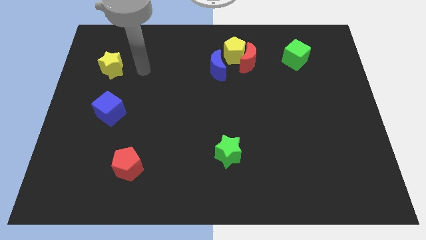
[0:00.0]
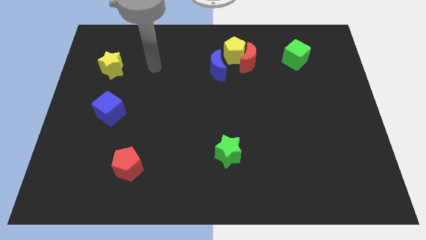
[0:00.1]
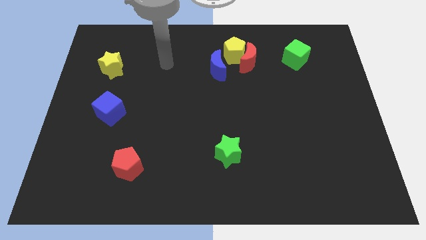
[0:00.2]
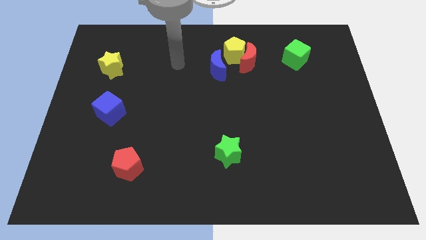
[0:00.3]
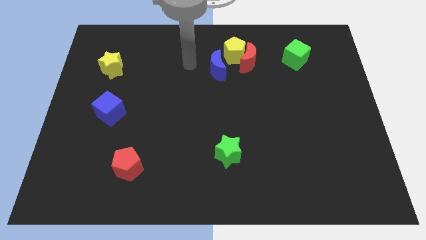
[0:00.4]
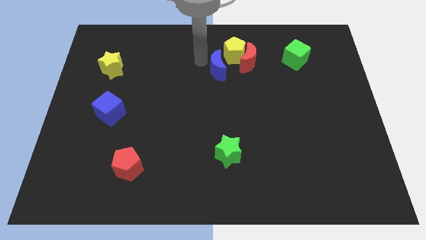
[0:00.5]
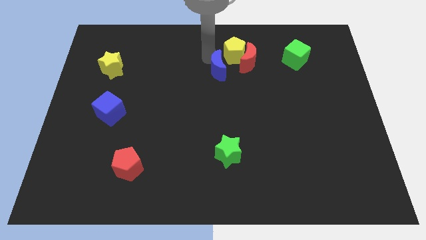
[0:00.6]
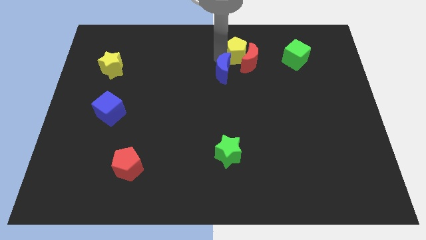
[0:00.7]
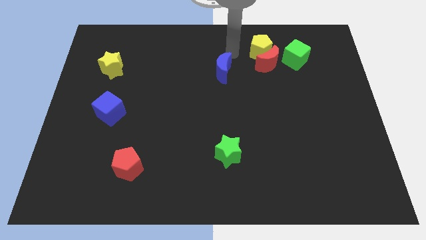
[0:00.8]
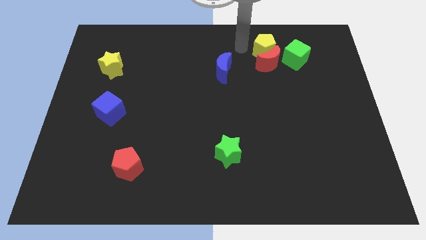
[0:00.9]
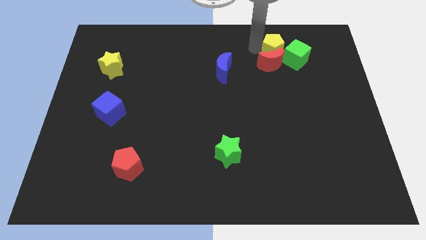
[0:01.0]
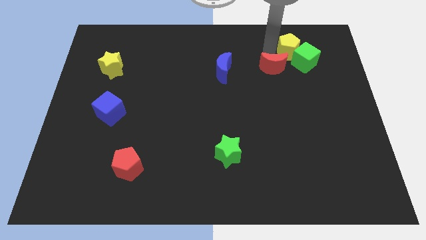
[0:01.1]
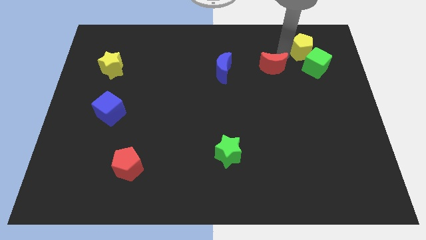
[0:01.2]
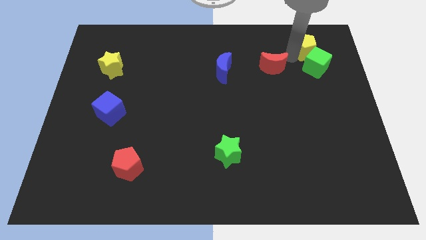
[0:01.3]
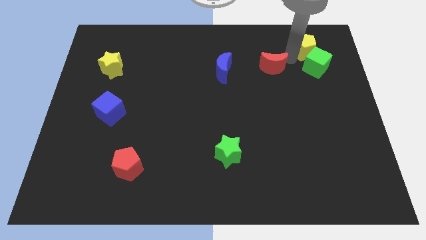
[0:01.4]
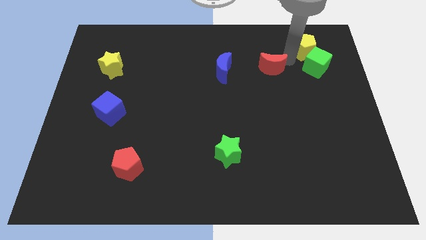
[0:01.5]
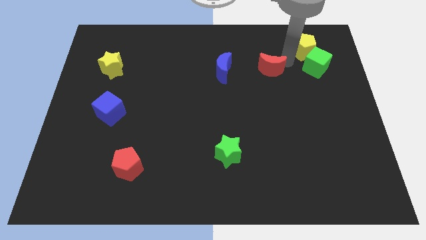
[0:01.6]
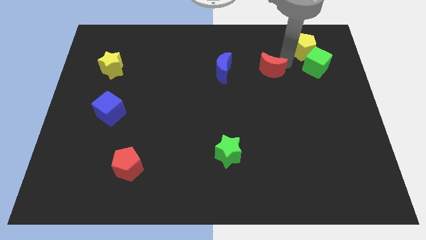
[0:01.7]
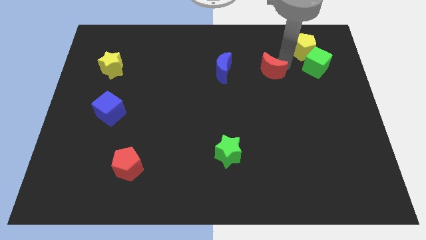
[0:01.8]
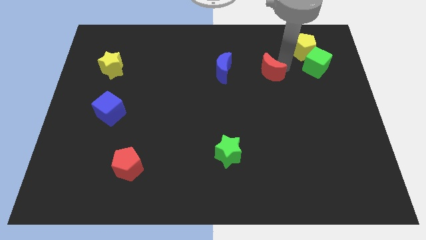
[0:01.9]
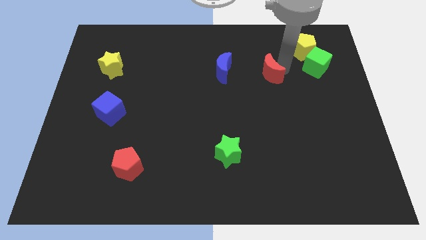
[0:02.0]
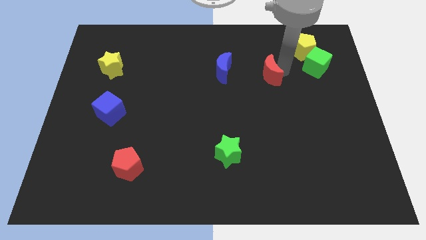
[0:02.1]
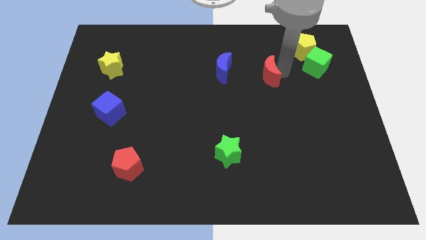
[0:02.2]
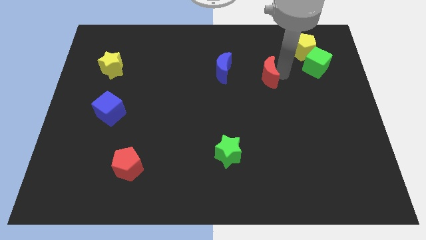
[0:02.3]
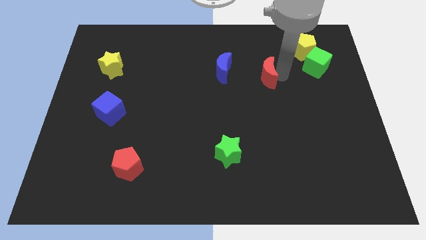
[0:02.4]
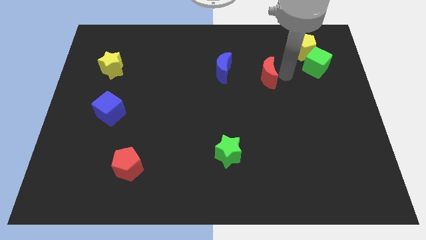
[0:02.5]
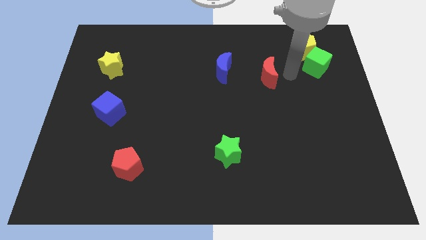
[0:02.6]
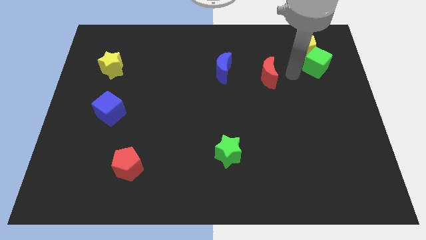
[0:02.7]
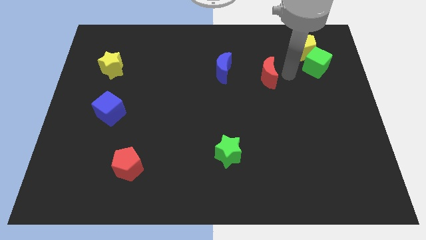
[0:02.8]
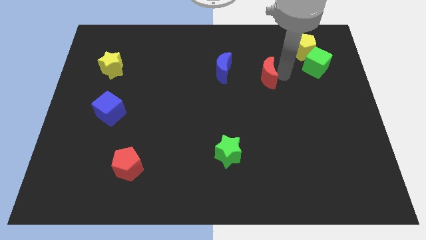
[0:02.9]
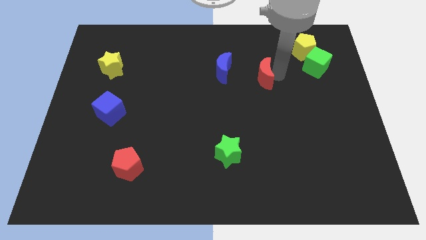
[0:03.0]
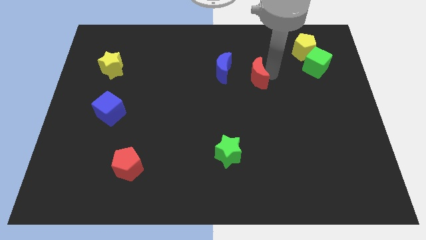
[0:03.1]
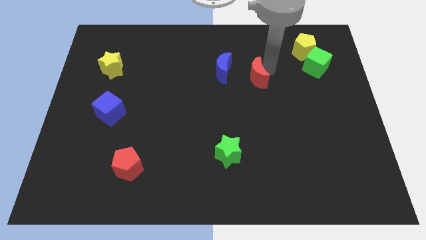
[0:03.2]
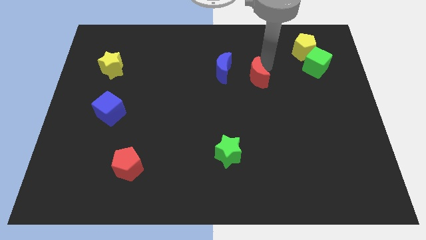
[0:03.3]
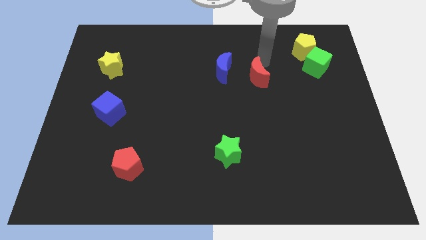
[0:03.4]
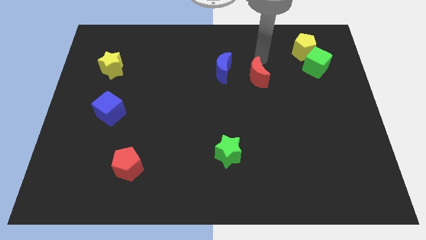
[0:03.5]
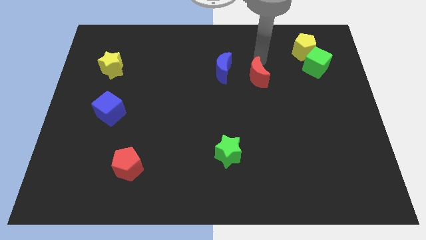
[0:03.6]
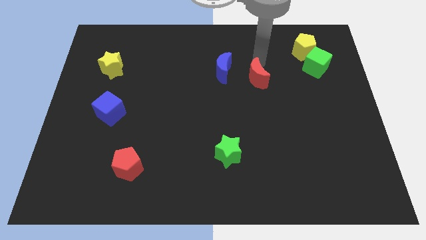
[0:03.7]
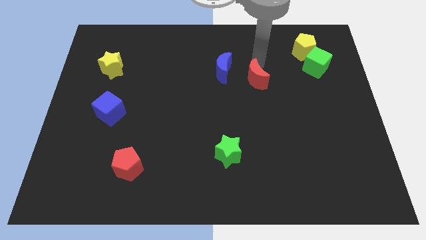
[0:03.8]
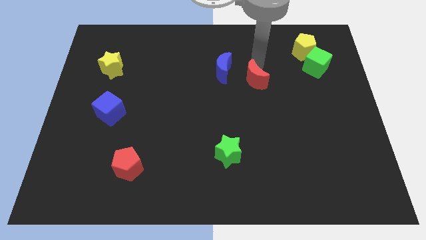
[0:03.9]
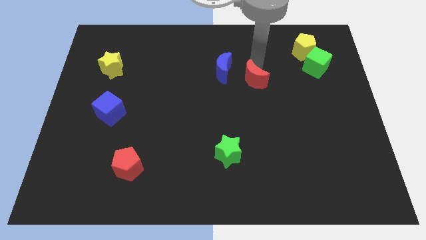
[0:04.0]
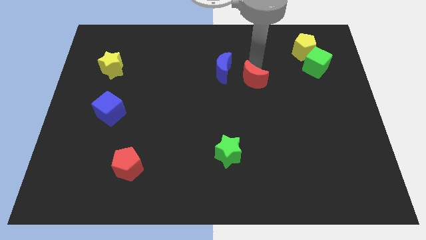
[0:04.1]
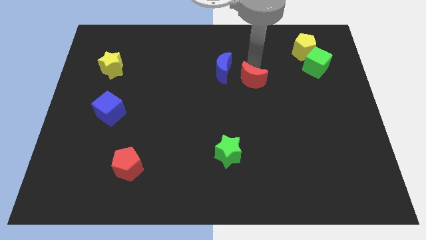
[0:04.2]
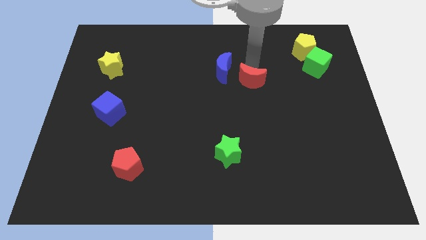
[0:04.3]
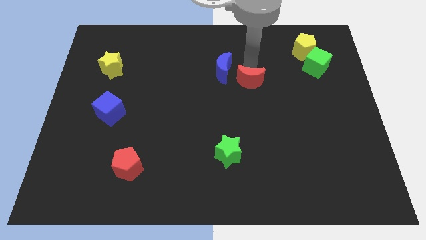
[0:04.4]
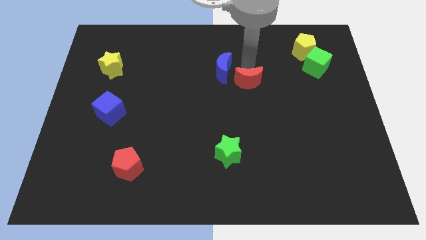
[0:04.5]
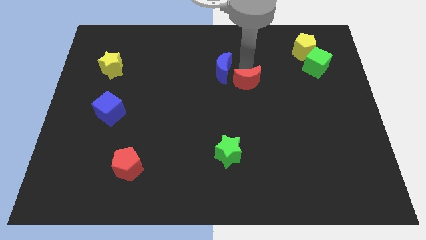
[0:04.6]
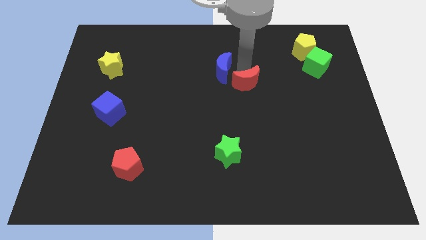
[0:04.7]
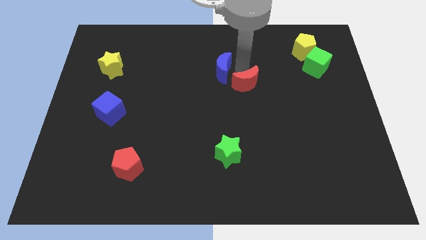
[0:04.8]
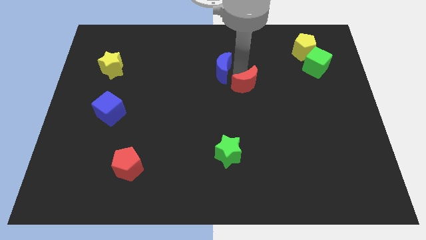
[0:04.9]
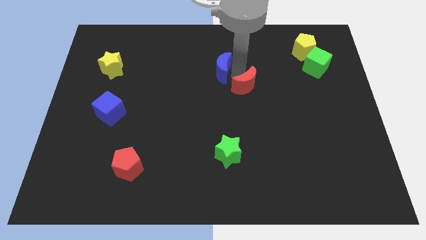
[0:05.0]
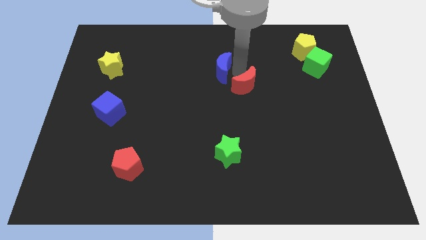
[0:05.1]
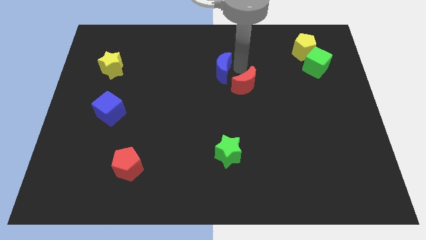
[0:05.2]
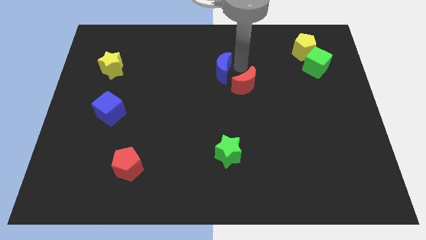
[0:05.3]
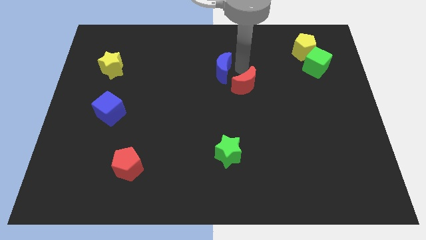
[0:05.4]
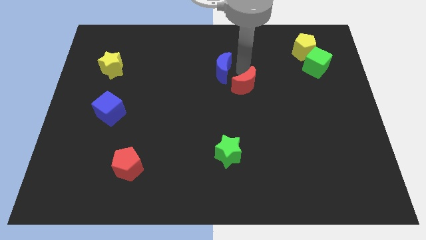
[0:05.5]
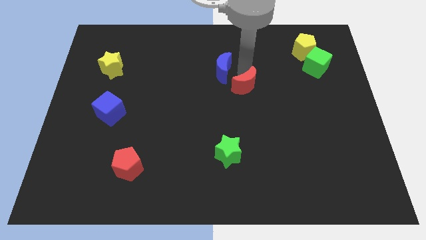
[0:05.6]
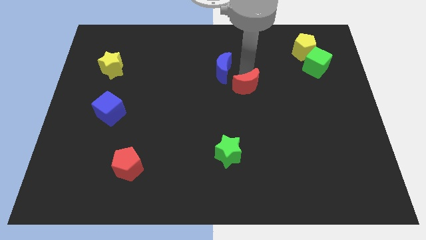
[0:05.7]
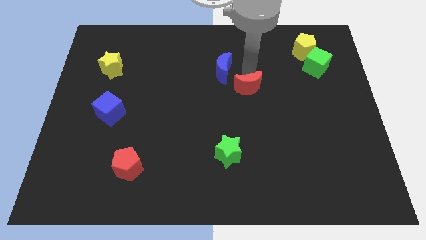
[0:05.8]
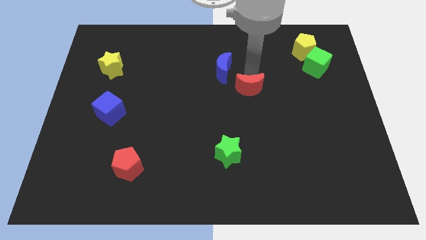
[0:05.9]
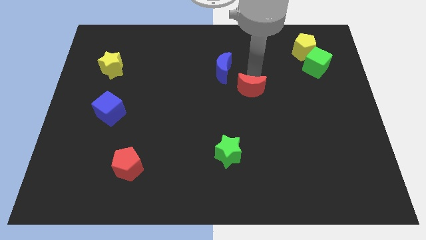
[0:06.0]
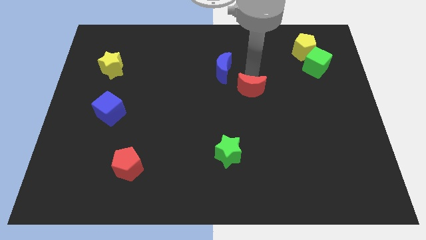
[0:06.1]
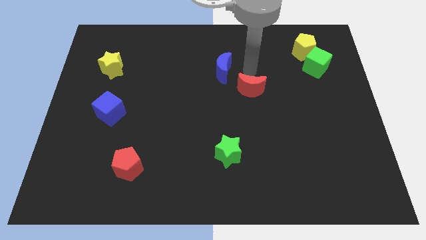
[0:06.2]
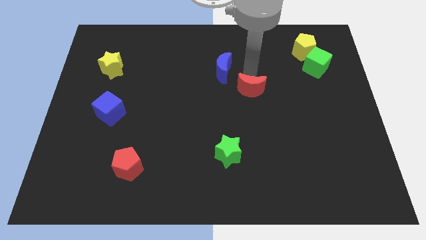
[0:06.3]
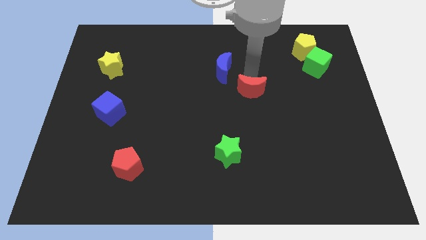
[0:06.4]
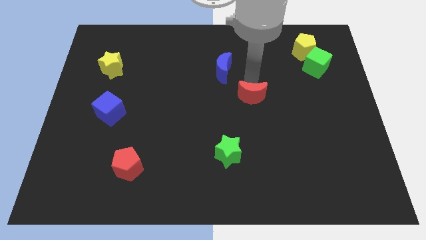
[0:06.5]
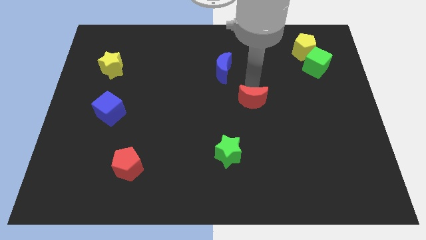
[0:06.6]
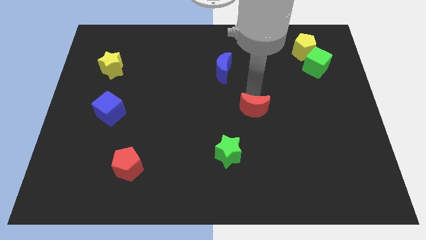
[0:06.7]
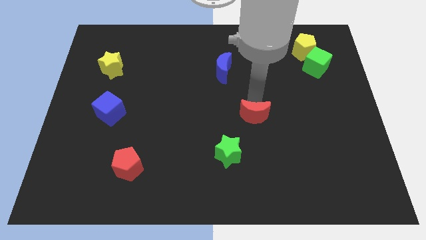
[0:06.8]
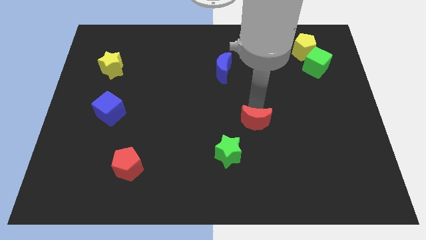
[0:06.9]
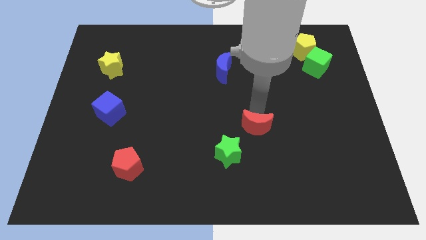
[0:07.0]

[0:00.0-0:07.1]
move the red moon down

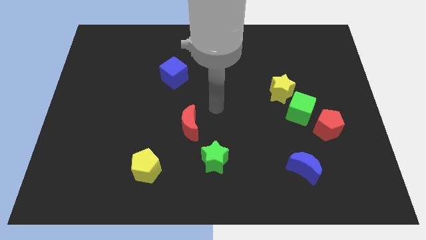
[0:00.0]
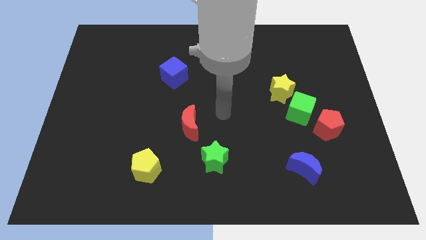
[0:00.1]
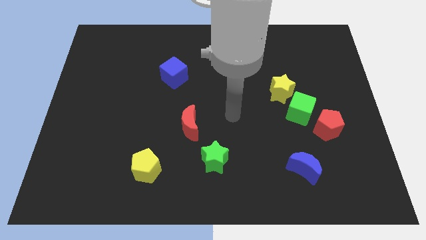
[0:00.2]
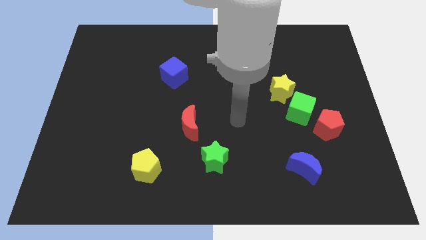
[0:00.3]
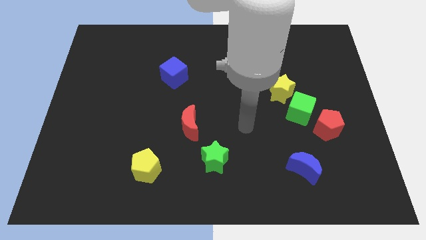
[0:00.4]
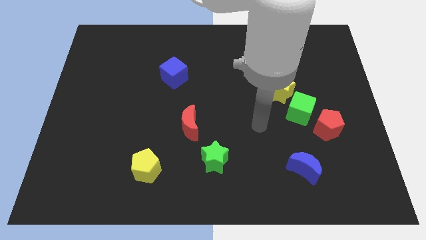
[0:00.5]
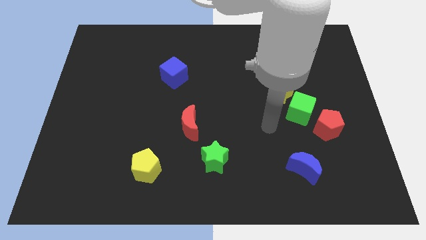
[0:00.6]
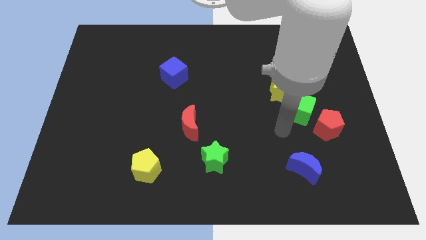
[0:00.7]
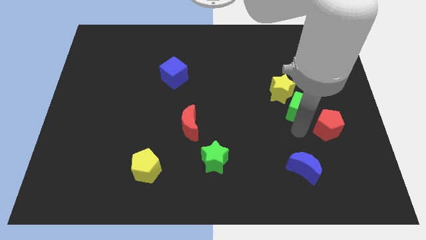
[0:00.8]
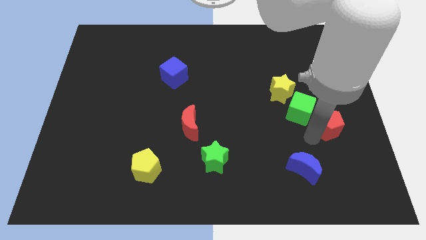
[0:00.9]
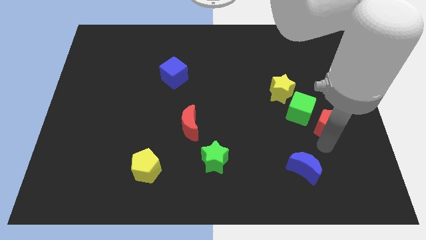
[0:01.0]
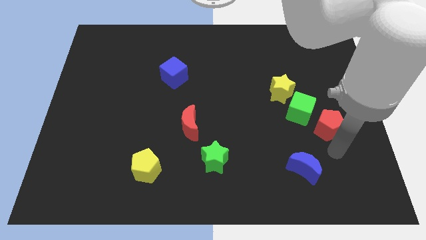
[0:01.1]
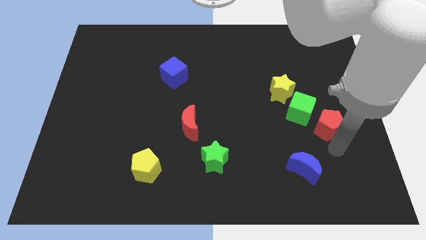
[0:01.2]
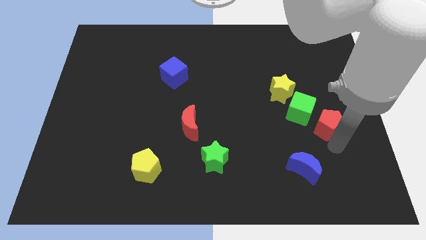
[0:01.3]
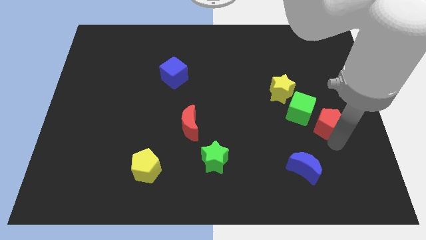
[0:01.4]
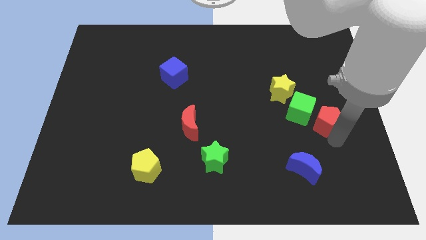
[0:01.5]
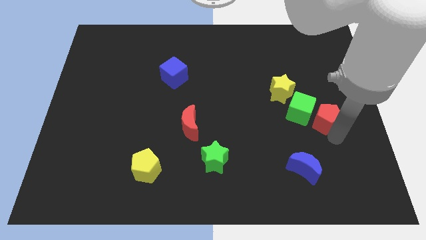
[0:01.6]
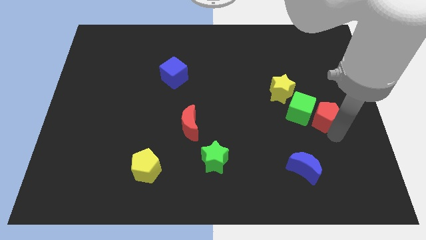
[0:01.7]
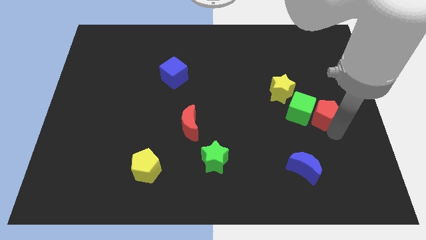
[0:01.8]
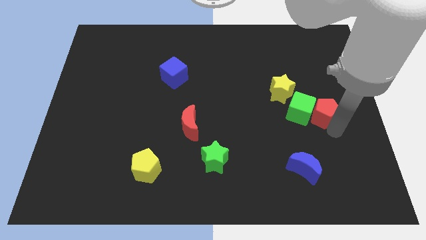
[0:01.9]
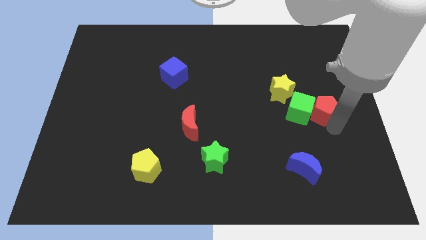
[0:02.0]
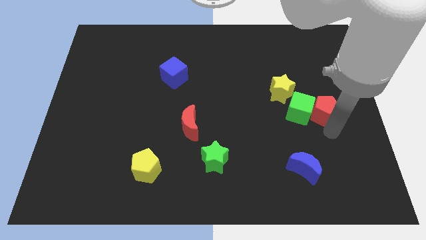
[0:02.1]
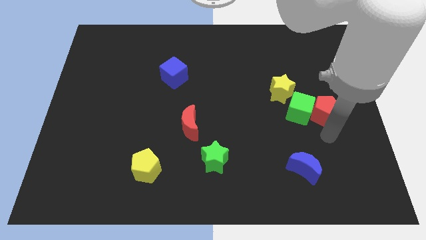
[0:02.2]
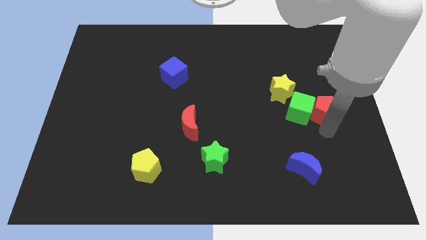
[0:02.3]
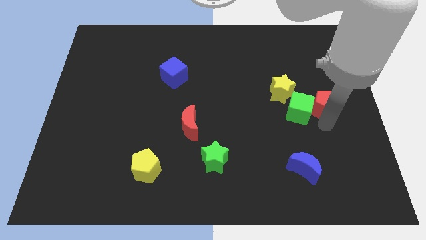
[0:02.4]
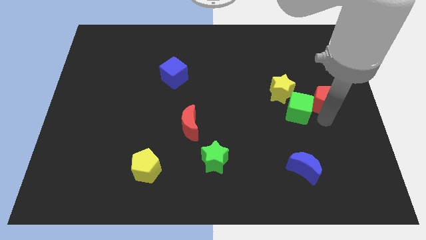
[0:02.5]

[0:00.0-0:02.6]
move the red pentagon a little upwards
